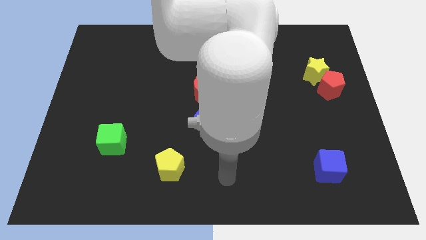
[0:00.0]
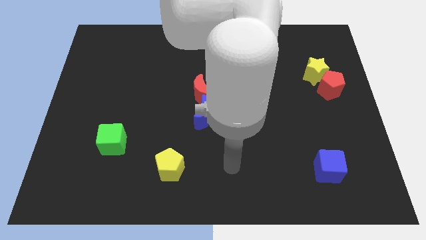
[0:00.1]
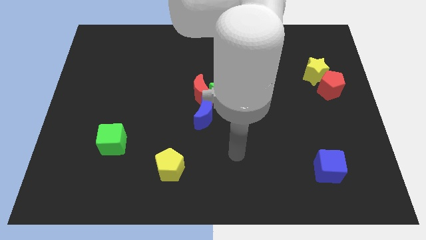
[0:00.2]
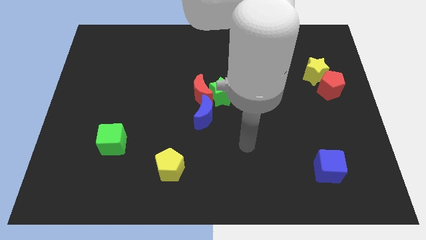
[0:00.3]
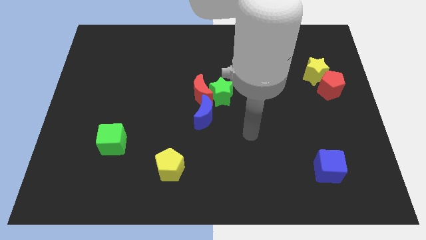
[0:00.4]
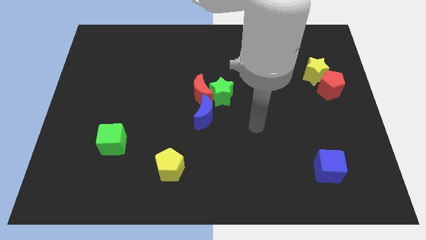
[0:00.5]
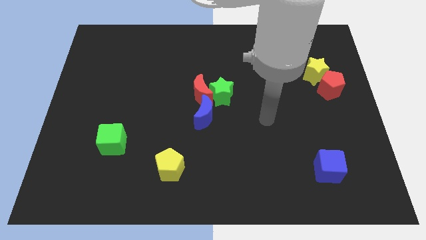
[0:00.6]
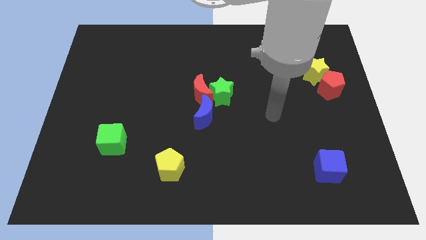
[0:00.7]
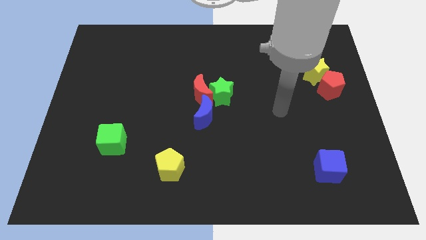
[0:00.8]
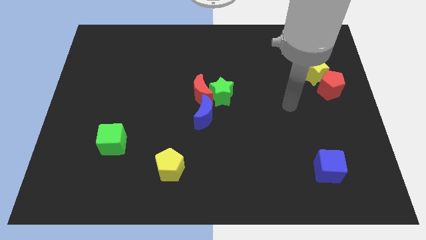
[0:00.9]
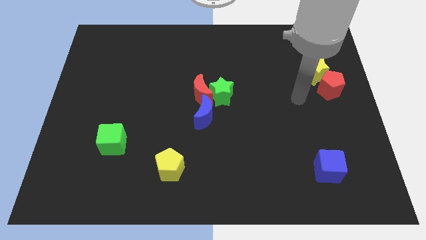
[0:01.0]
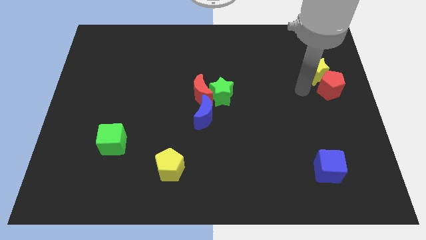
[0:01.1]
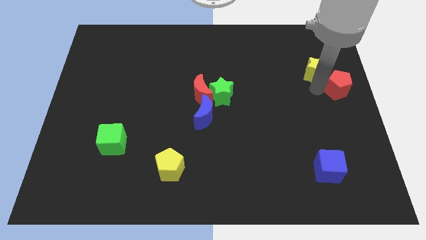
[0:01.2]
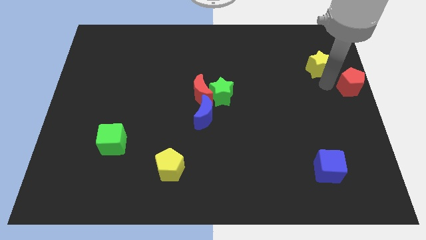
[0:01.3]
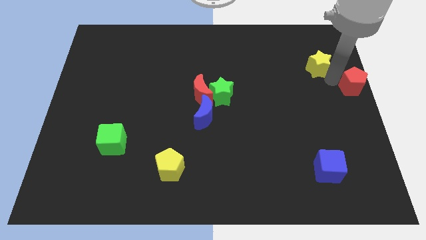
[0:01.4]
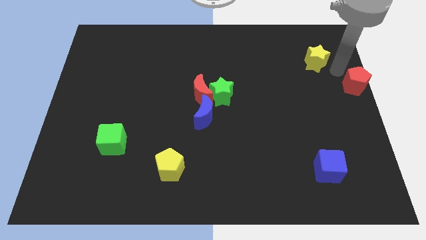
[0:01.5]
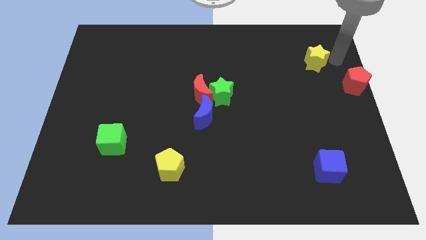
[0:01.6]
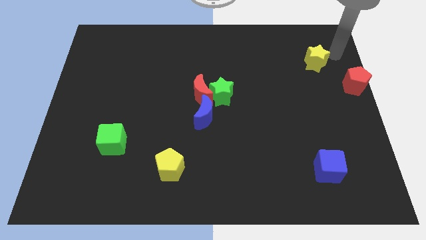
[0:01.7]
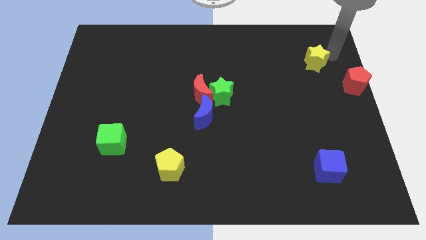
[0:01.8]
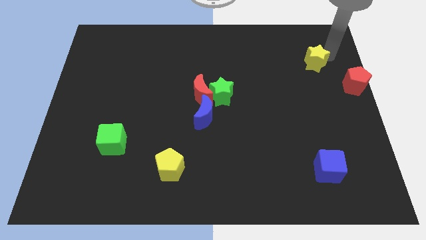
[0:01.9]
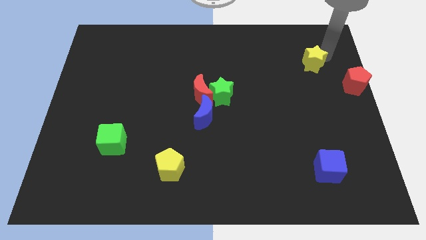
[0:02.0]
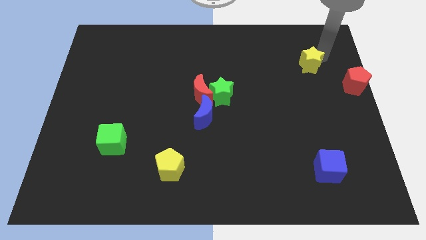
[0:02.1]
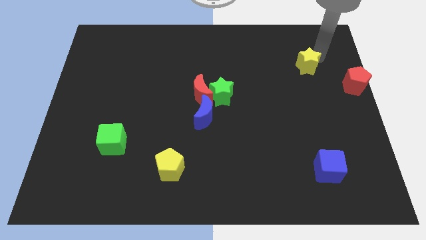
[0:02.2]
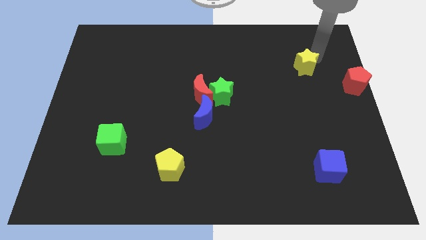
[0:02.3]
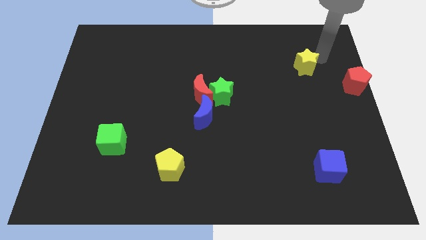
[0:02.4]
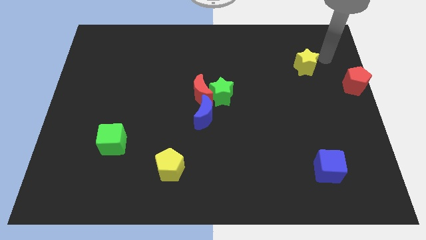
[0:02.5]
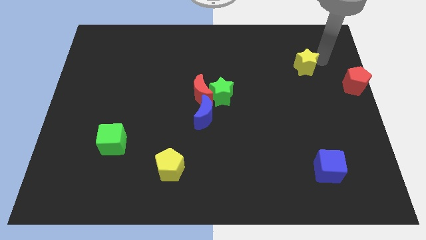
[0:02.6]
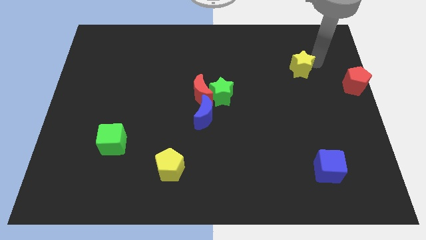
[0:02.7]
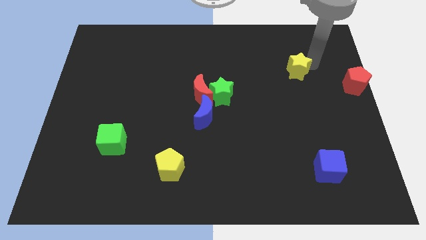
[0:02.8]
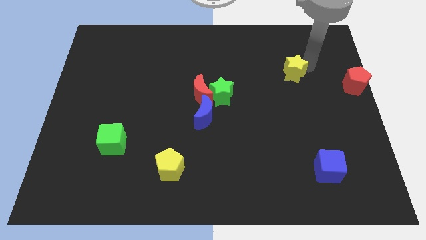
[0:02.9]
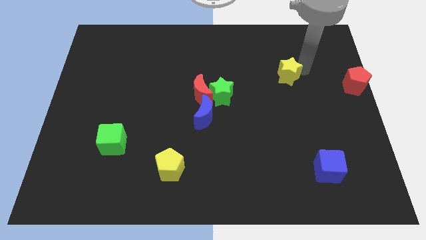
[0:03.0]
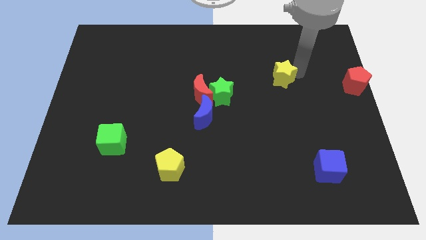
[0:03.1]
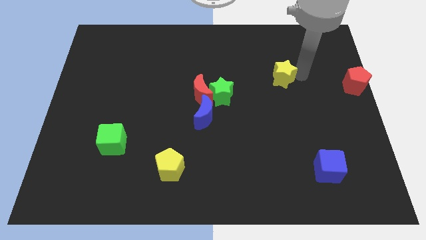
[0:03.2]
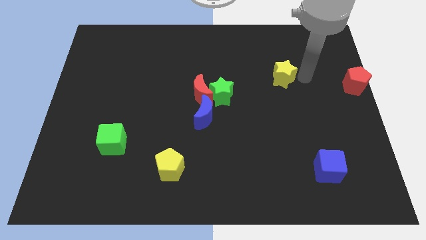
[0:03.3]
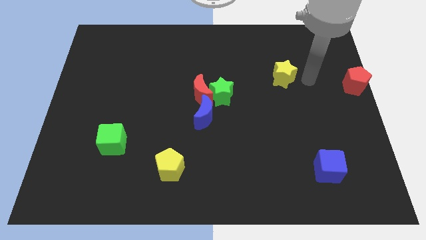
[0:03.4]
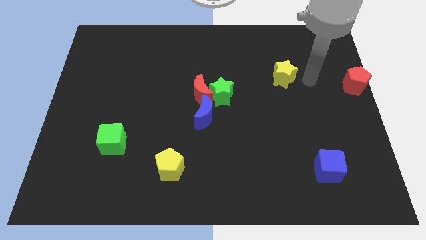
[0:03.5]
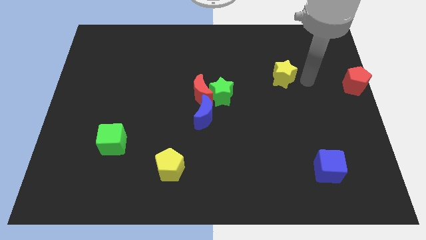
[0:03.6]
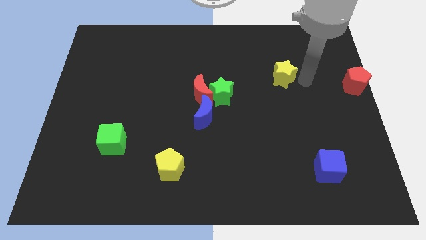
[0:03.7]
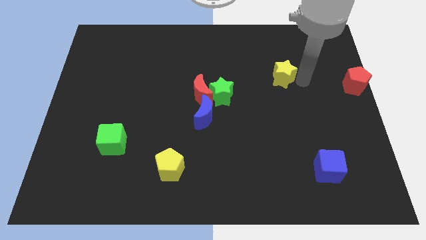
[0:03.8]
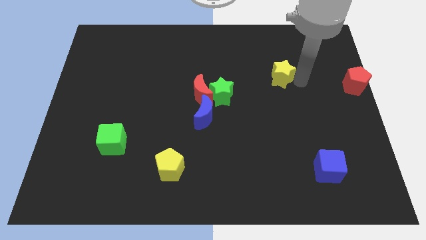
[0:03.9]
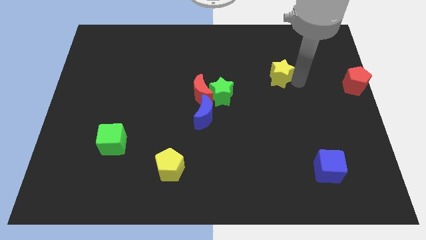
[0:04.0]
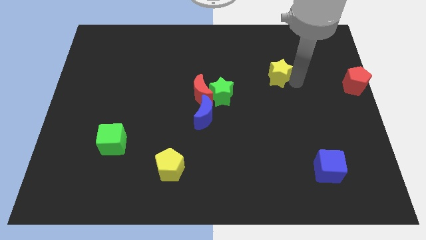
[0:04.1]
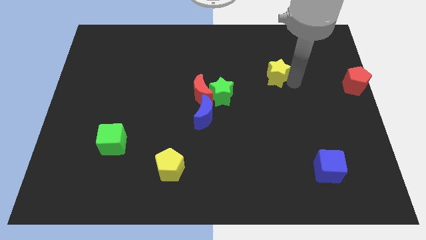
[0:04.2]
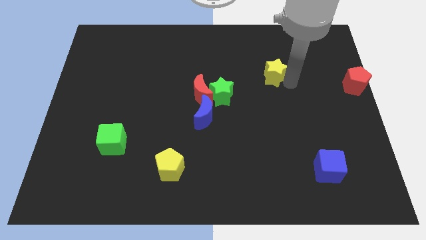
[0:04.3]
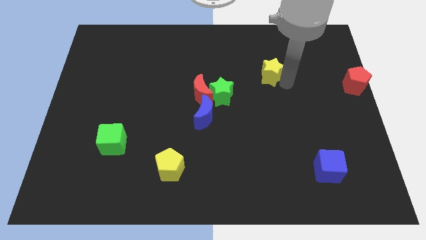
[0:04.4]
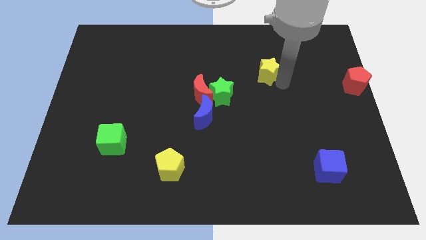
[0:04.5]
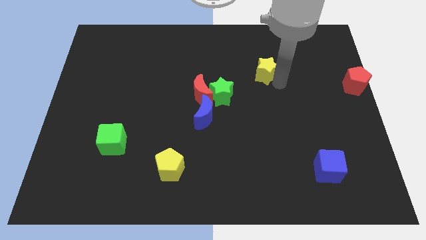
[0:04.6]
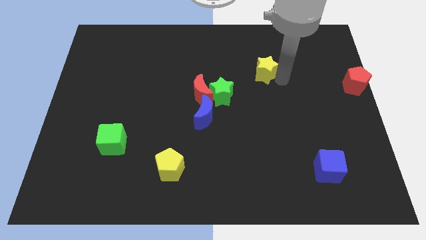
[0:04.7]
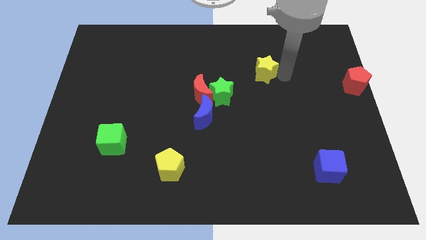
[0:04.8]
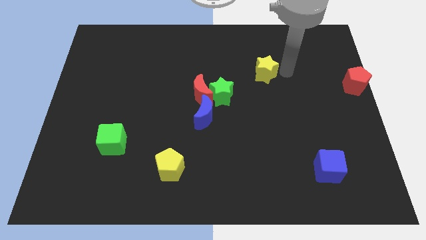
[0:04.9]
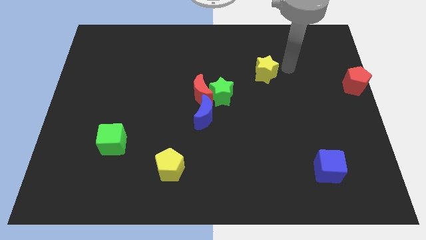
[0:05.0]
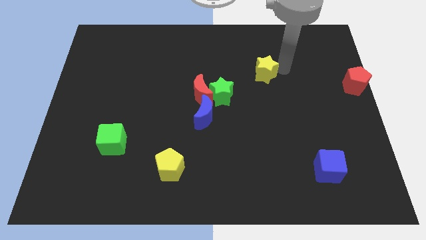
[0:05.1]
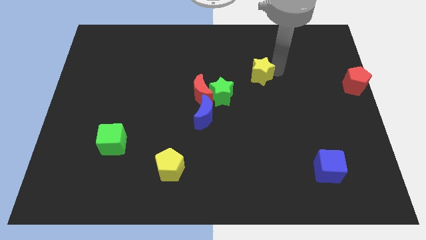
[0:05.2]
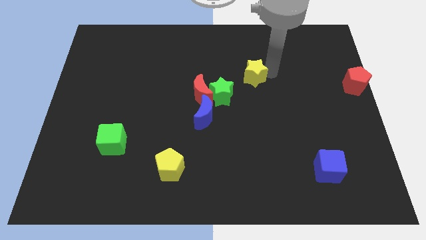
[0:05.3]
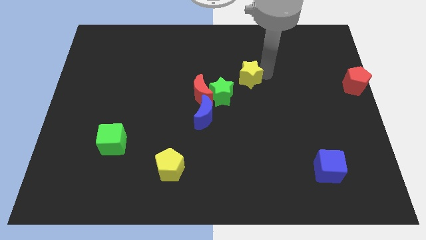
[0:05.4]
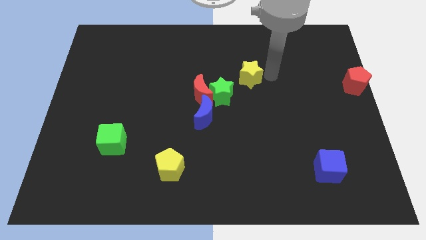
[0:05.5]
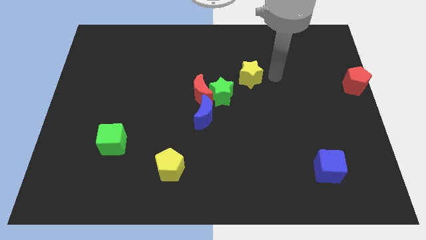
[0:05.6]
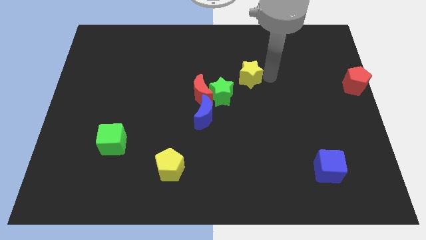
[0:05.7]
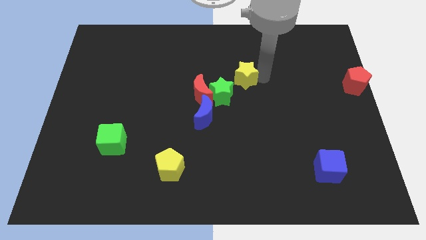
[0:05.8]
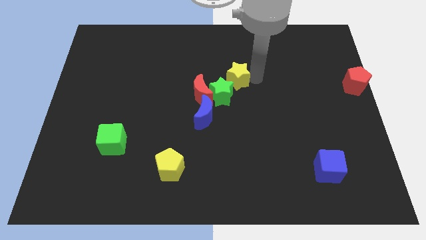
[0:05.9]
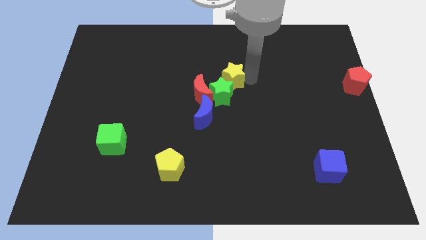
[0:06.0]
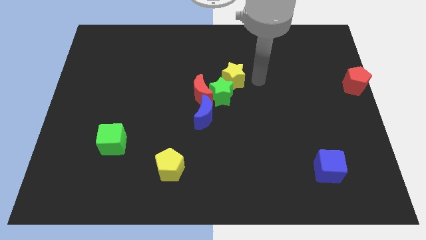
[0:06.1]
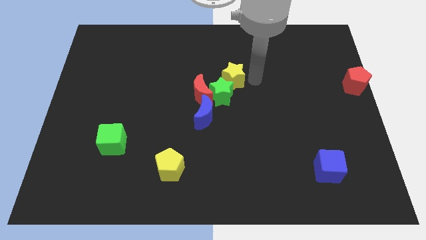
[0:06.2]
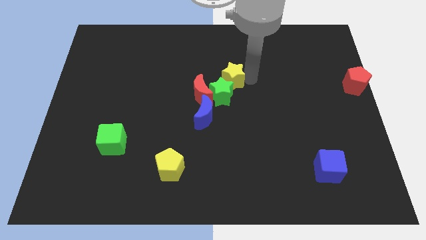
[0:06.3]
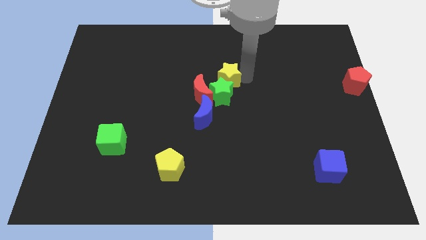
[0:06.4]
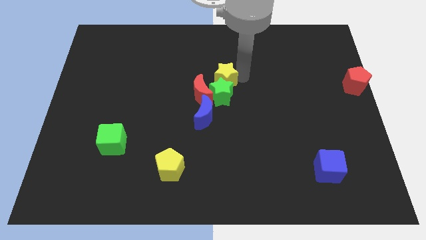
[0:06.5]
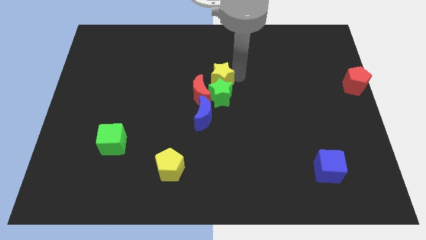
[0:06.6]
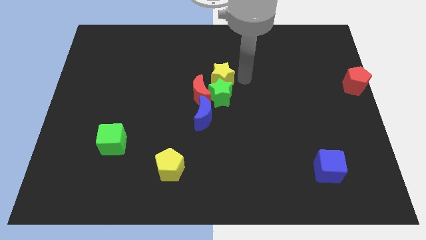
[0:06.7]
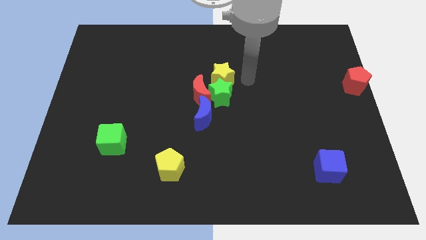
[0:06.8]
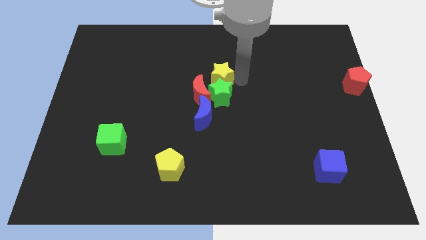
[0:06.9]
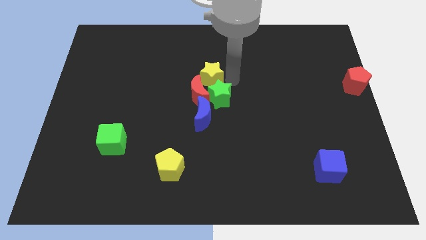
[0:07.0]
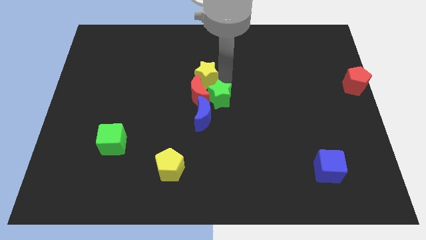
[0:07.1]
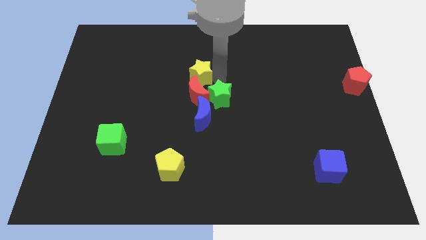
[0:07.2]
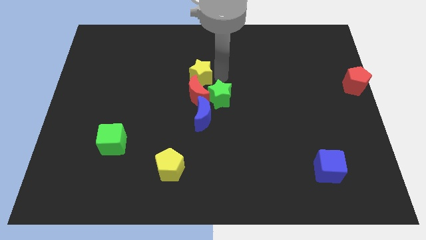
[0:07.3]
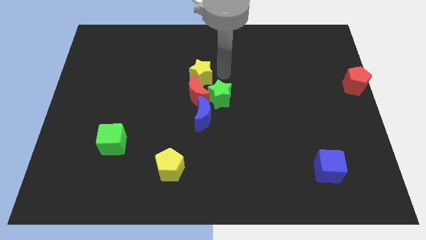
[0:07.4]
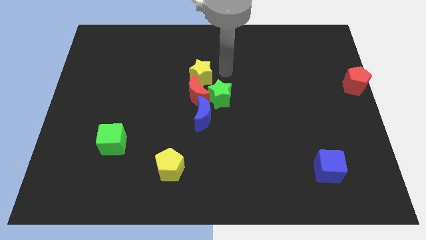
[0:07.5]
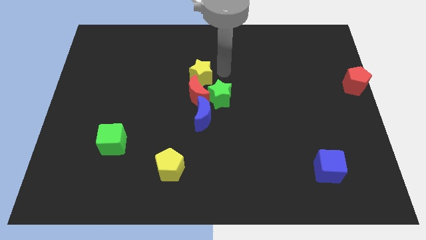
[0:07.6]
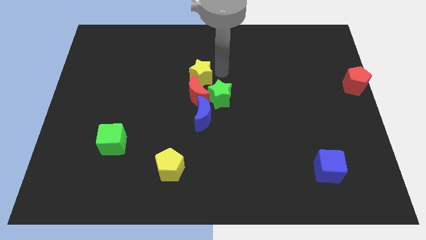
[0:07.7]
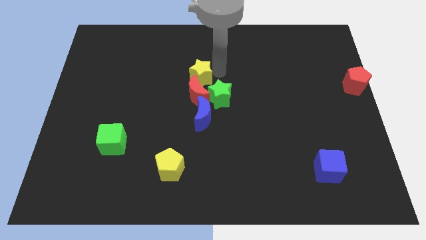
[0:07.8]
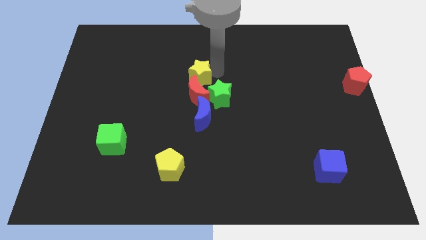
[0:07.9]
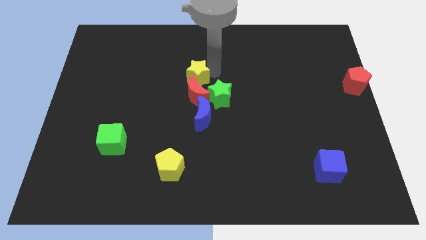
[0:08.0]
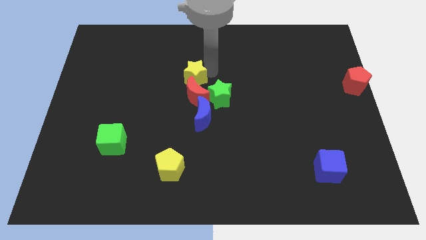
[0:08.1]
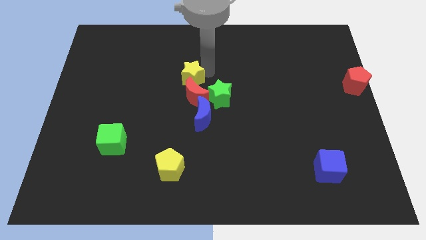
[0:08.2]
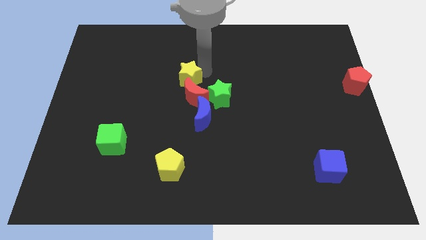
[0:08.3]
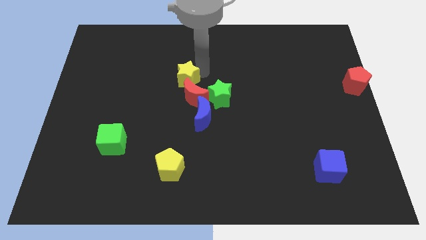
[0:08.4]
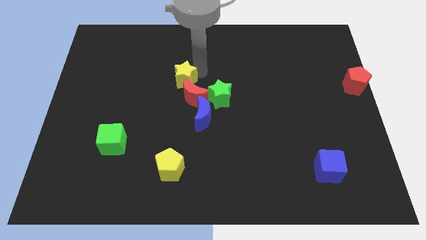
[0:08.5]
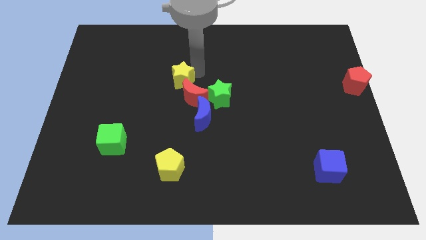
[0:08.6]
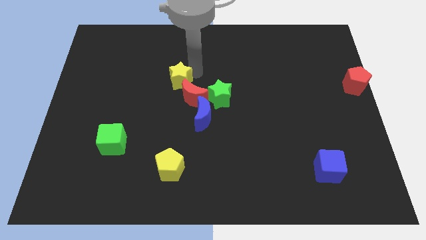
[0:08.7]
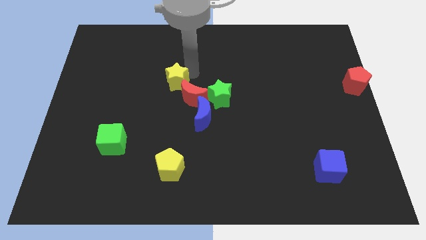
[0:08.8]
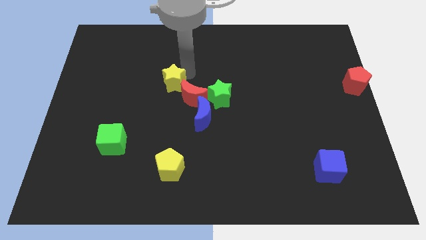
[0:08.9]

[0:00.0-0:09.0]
put the yellow star just left of the red moon
